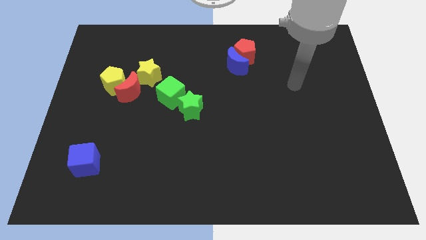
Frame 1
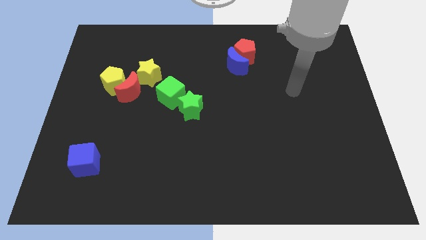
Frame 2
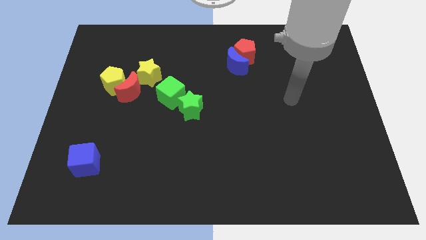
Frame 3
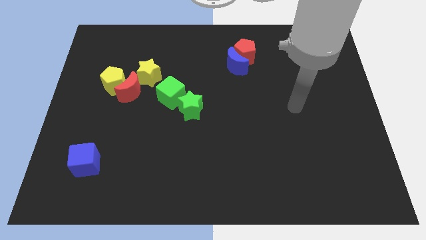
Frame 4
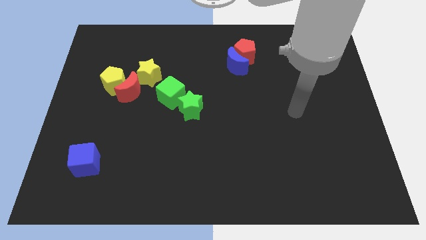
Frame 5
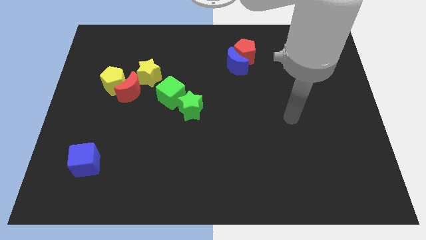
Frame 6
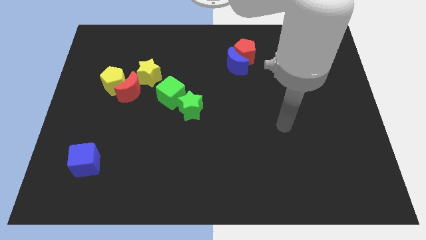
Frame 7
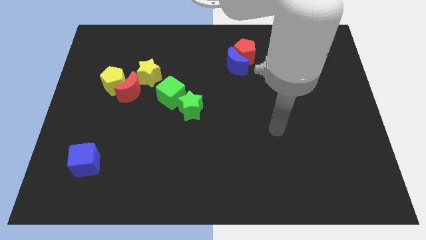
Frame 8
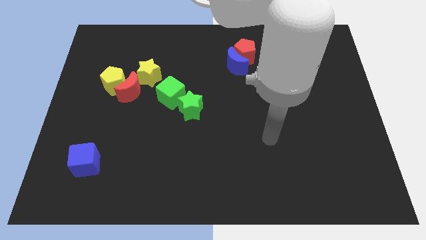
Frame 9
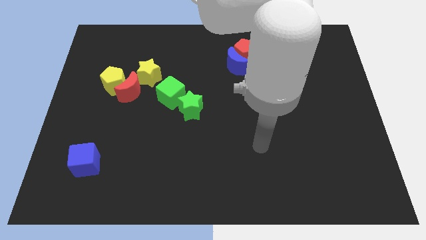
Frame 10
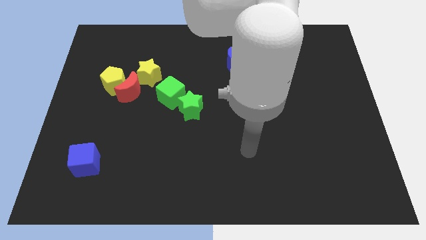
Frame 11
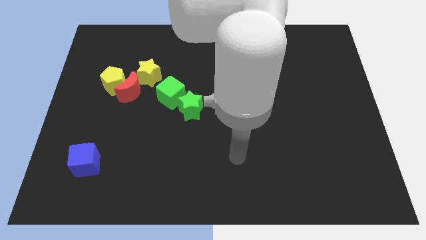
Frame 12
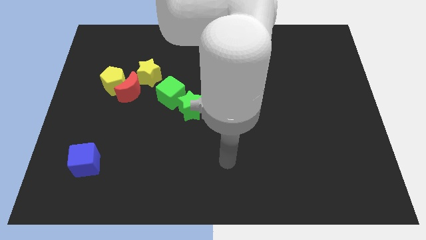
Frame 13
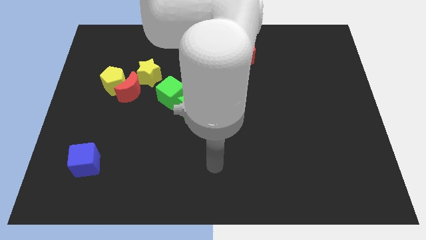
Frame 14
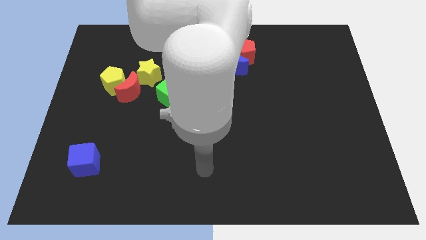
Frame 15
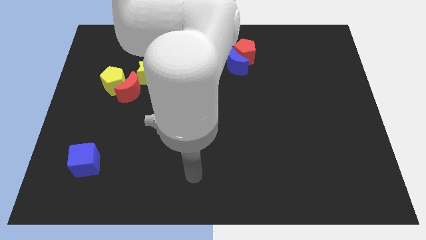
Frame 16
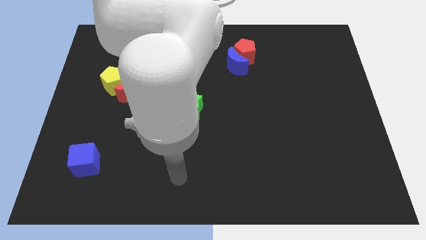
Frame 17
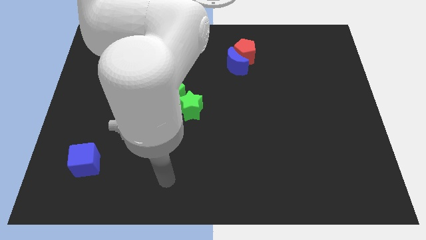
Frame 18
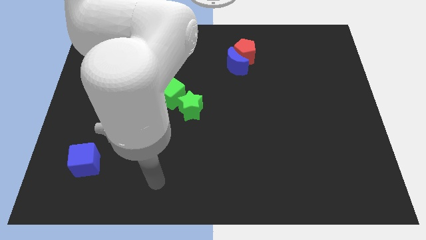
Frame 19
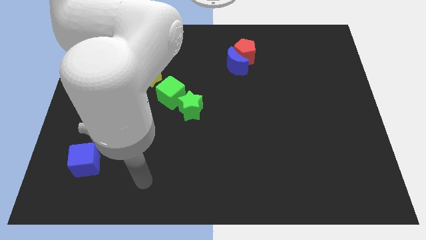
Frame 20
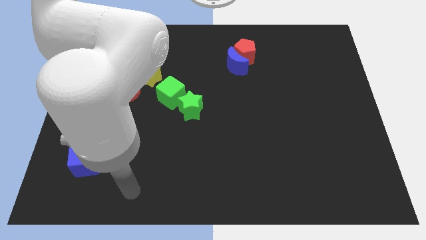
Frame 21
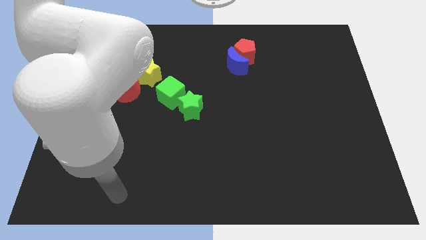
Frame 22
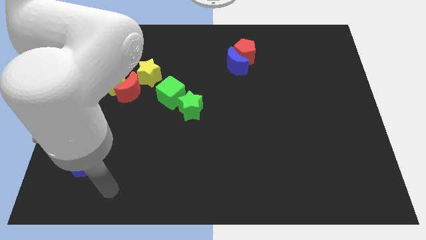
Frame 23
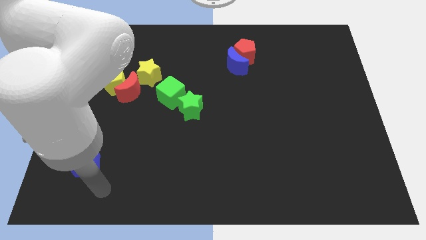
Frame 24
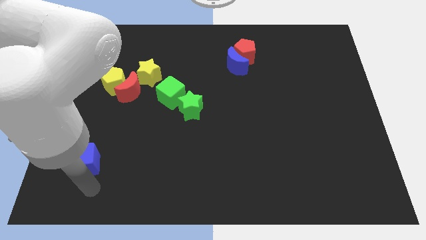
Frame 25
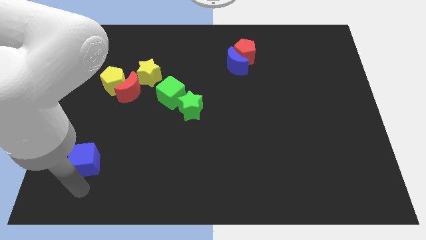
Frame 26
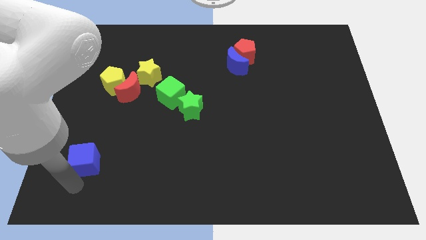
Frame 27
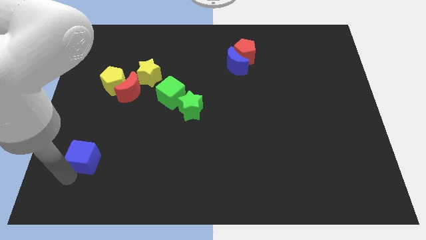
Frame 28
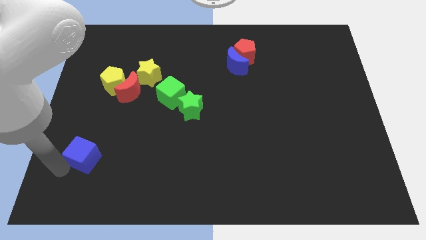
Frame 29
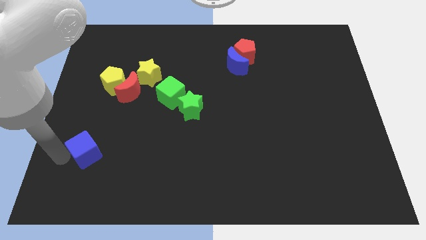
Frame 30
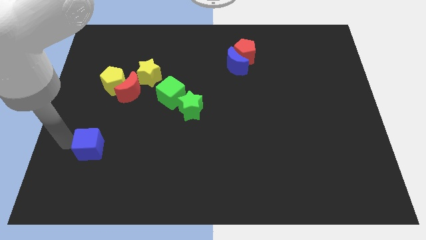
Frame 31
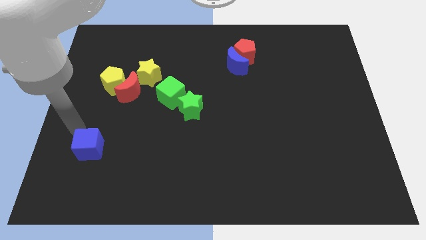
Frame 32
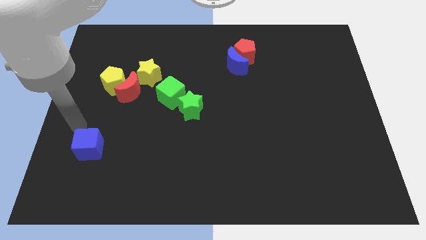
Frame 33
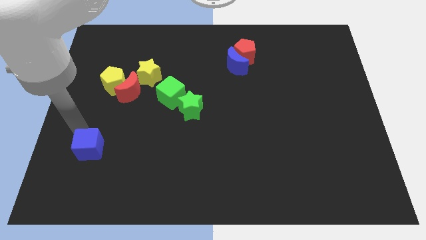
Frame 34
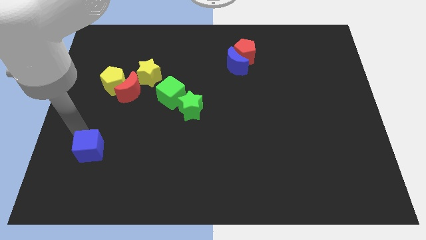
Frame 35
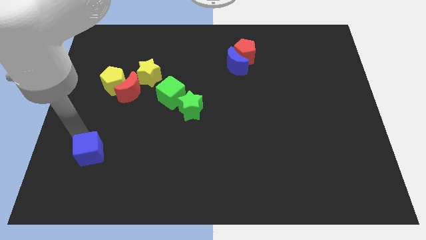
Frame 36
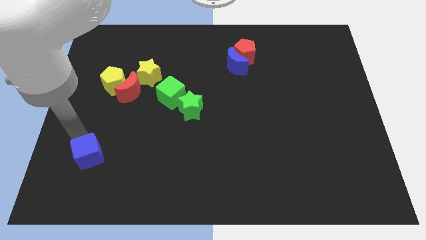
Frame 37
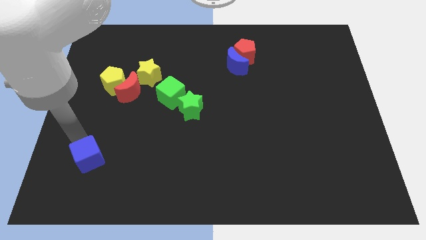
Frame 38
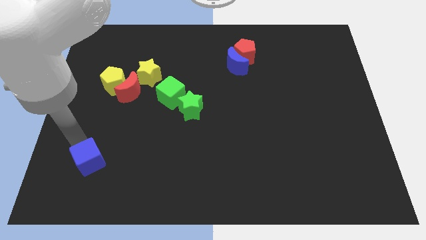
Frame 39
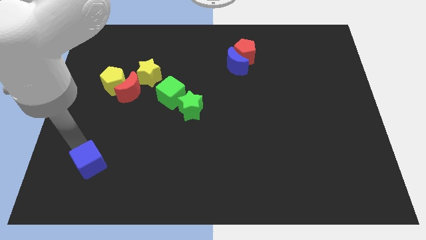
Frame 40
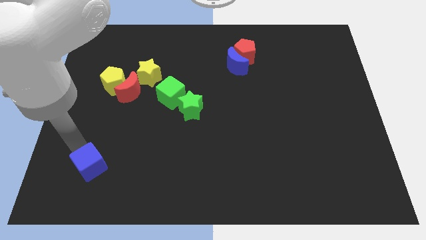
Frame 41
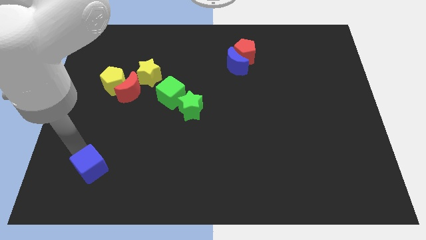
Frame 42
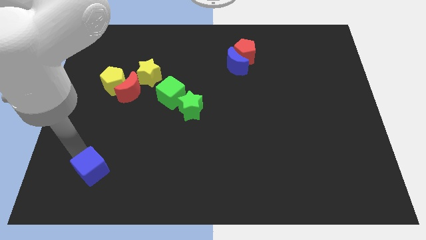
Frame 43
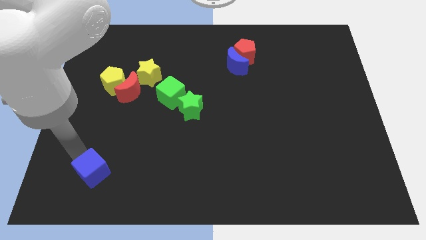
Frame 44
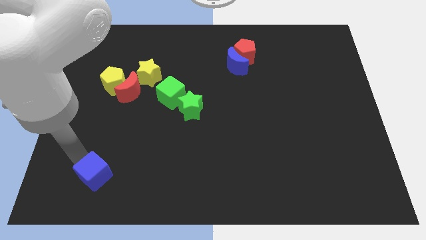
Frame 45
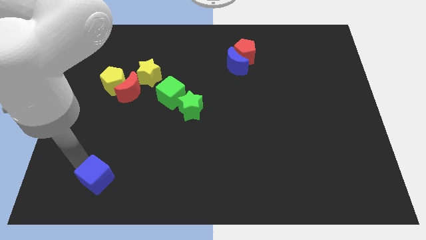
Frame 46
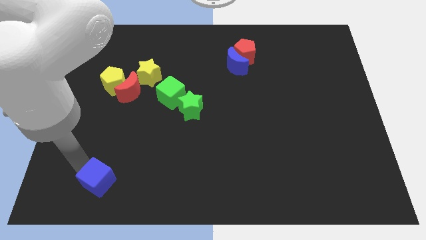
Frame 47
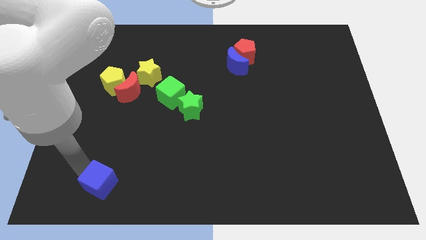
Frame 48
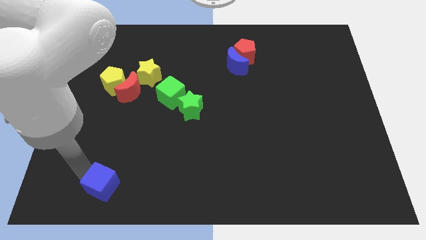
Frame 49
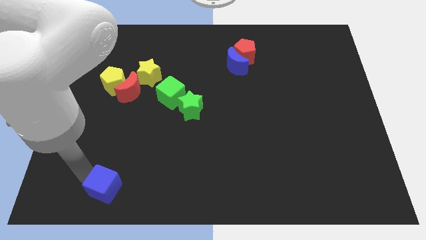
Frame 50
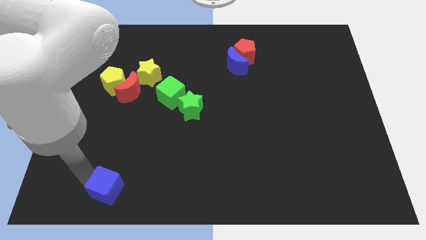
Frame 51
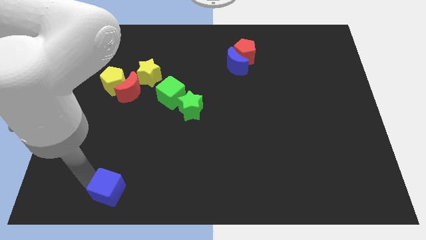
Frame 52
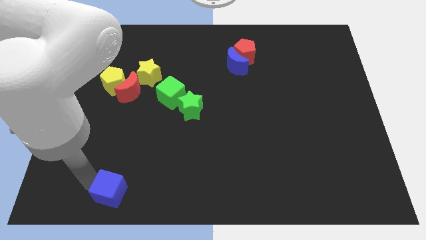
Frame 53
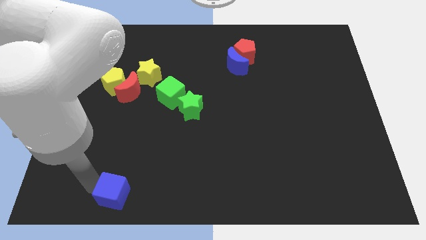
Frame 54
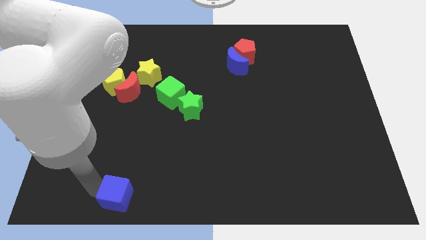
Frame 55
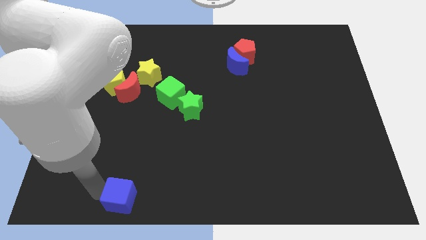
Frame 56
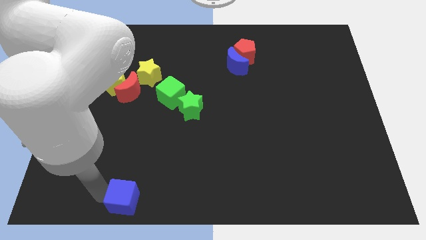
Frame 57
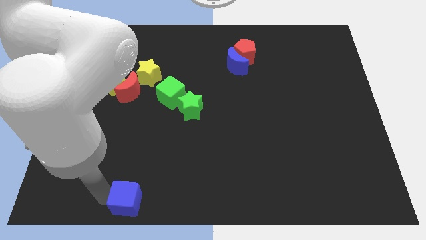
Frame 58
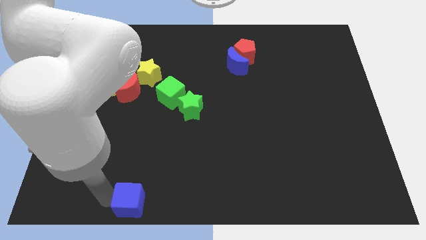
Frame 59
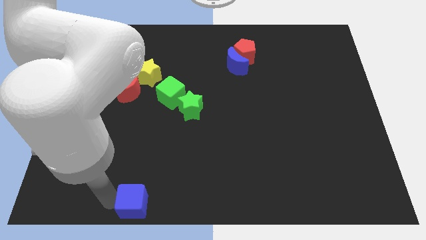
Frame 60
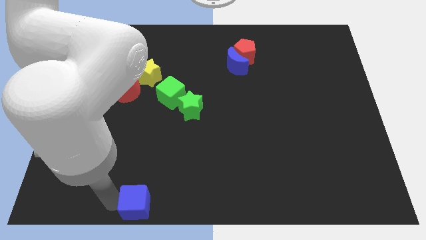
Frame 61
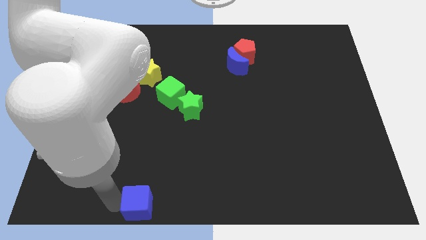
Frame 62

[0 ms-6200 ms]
put the blue cube to the bottom

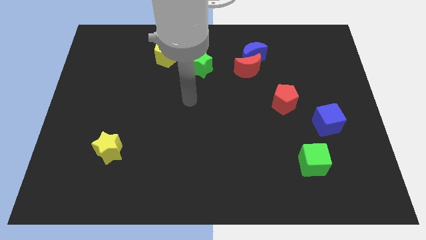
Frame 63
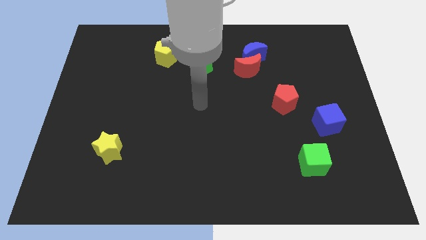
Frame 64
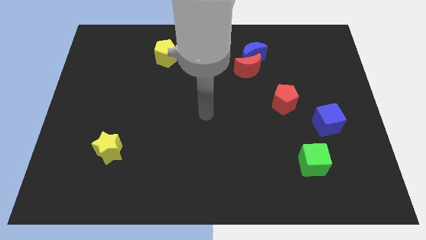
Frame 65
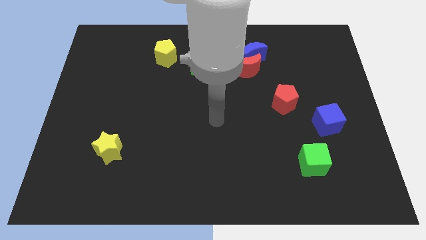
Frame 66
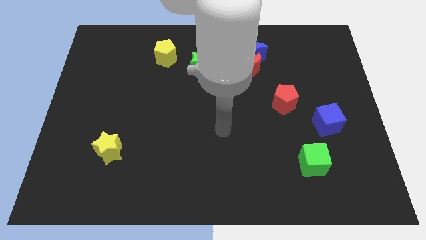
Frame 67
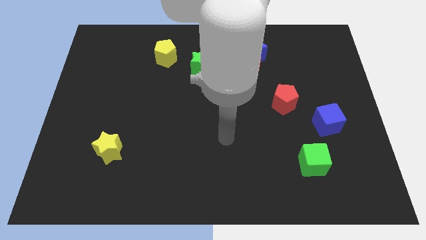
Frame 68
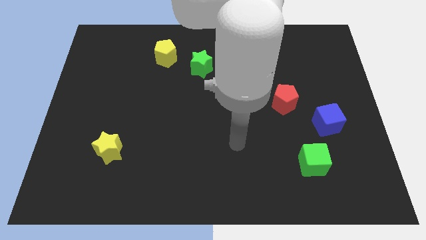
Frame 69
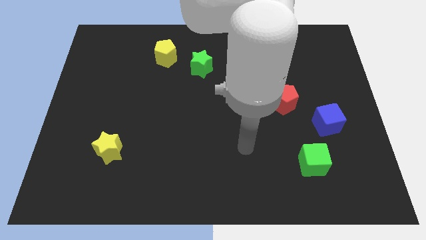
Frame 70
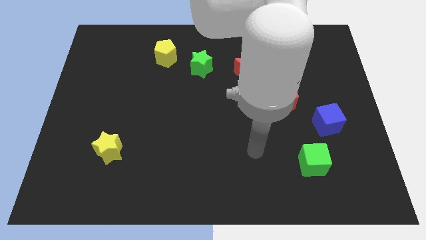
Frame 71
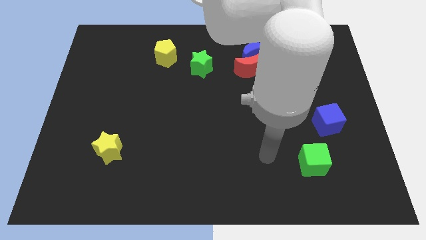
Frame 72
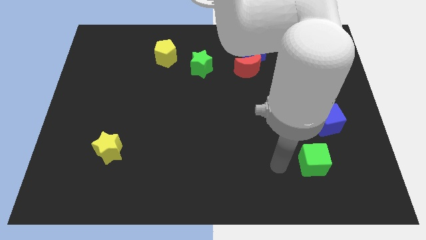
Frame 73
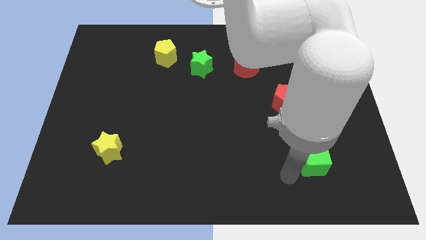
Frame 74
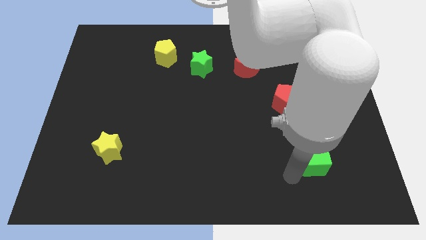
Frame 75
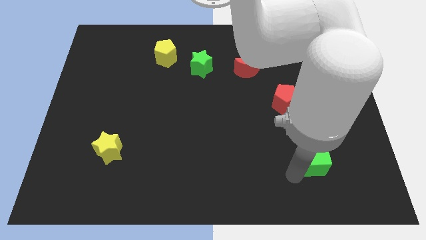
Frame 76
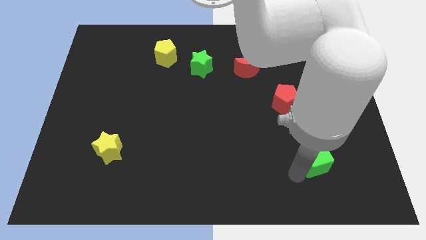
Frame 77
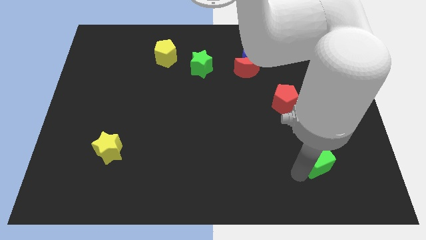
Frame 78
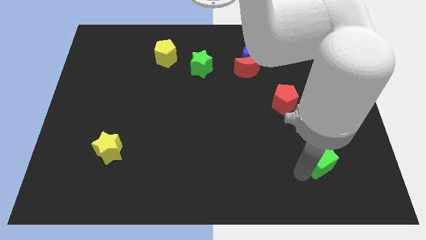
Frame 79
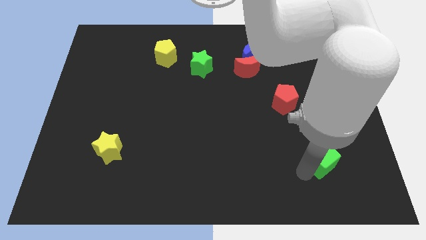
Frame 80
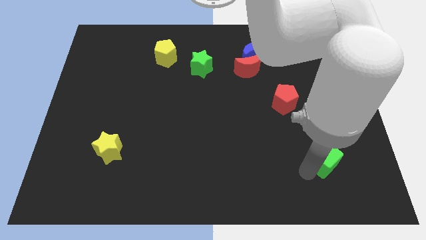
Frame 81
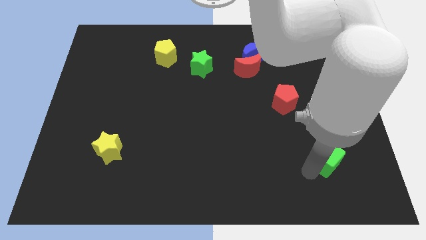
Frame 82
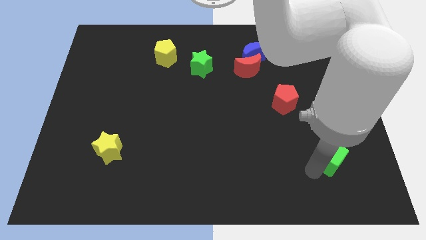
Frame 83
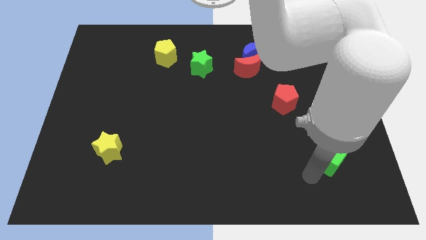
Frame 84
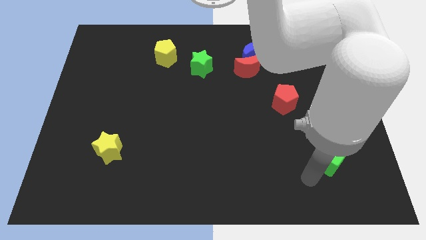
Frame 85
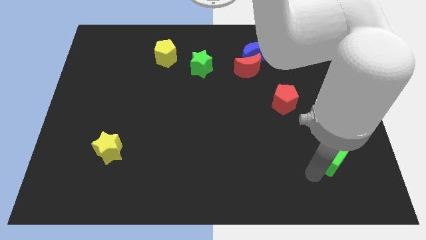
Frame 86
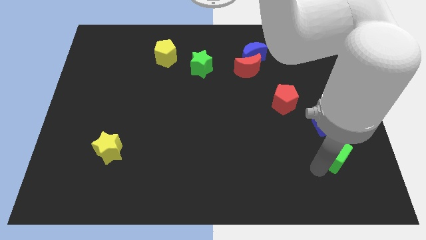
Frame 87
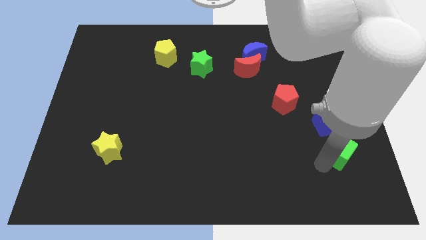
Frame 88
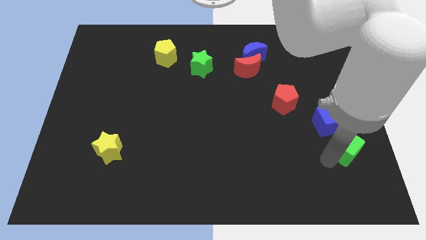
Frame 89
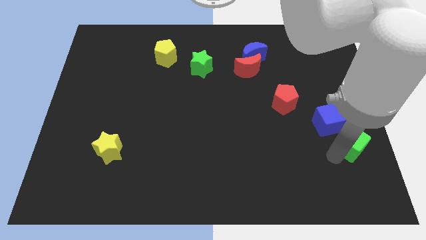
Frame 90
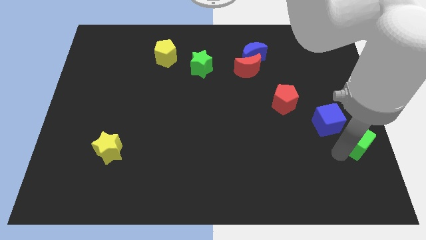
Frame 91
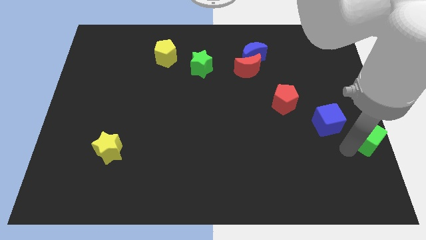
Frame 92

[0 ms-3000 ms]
put the green cube to the center right
